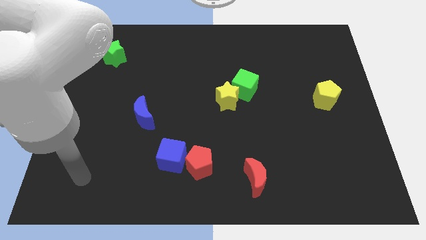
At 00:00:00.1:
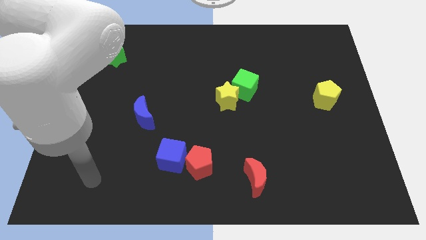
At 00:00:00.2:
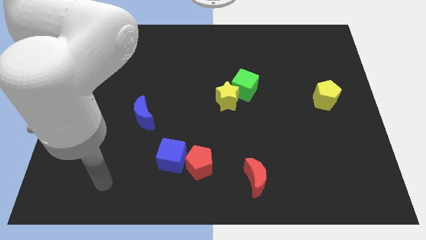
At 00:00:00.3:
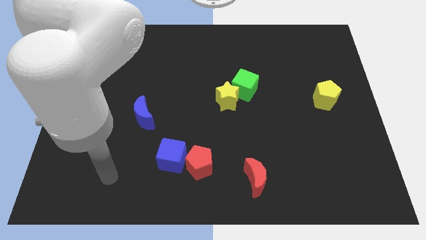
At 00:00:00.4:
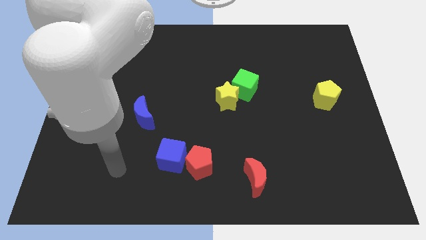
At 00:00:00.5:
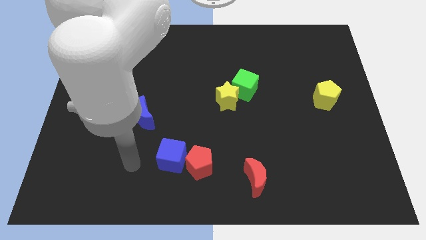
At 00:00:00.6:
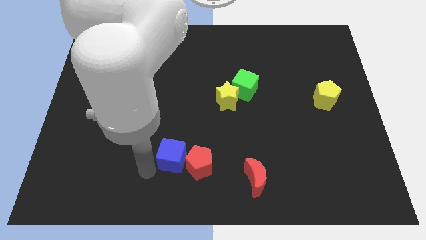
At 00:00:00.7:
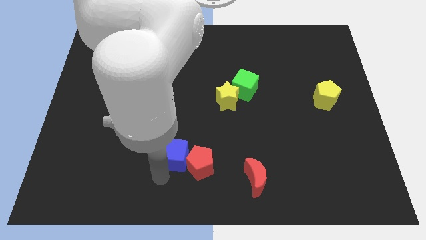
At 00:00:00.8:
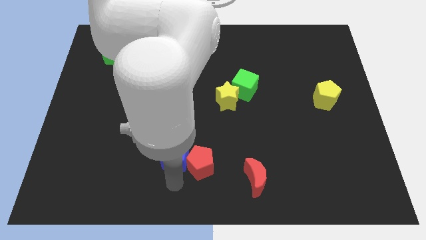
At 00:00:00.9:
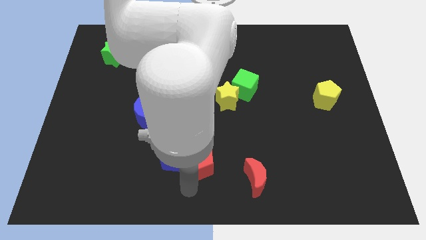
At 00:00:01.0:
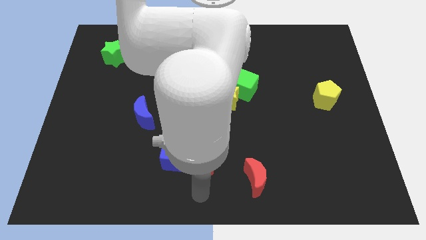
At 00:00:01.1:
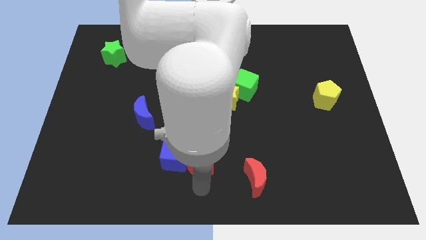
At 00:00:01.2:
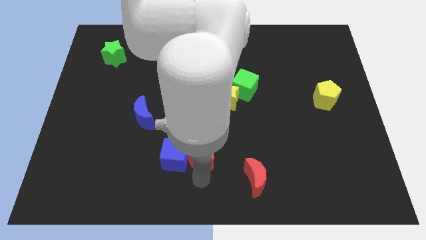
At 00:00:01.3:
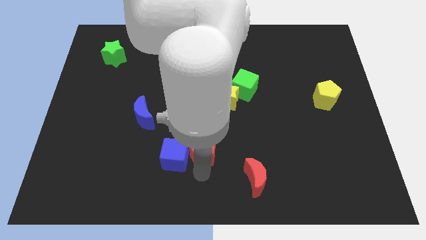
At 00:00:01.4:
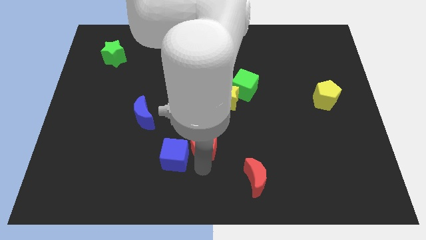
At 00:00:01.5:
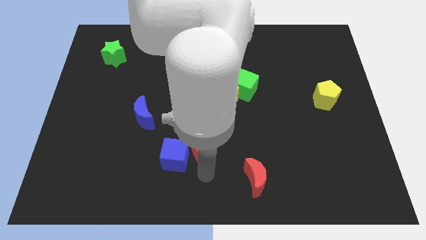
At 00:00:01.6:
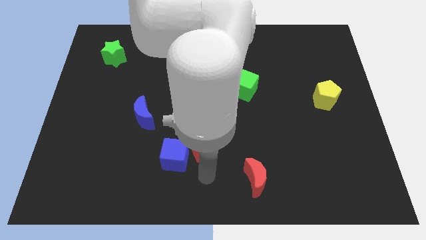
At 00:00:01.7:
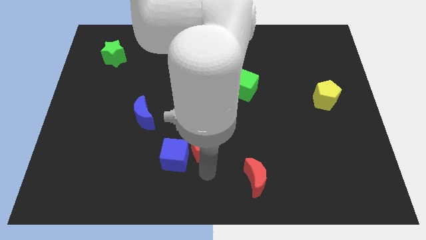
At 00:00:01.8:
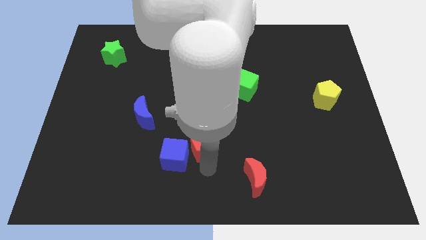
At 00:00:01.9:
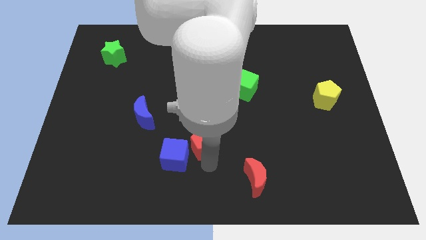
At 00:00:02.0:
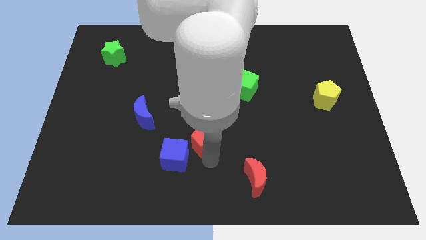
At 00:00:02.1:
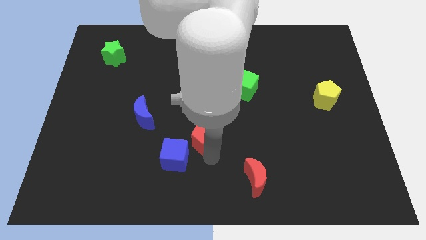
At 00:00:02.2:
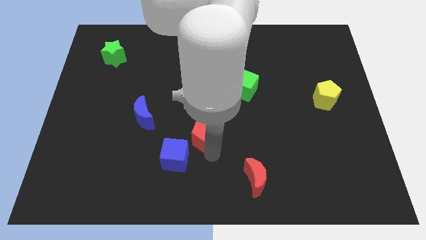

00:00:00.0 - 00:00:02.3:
slide the red pentagon up somewhat

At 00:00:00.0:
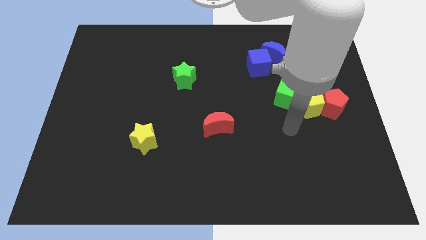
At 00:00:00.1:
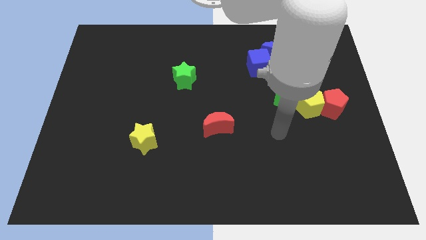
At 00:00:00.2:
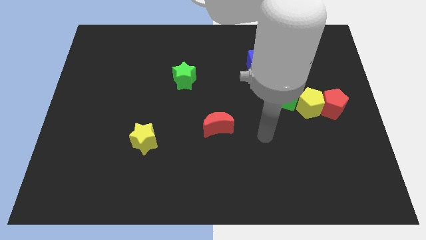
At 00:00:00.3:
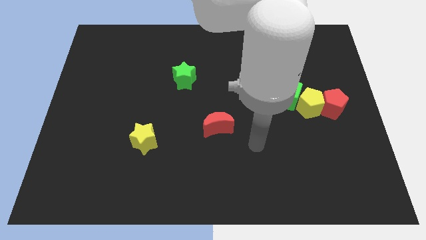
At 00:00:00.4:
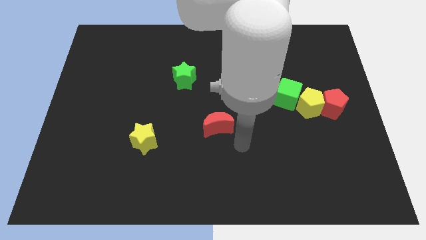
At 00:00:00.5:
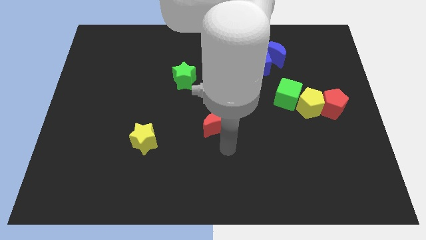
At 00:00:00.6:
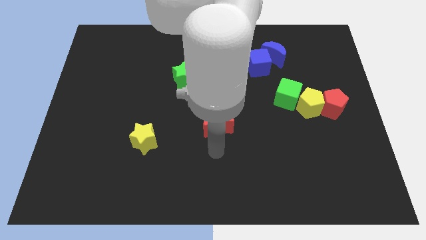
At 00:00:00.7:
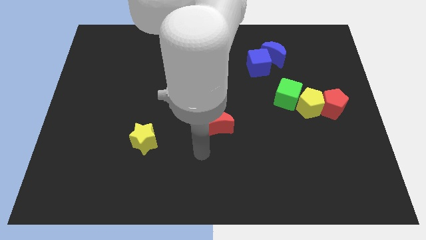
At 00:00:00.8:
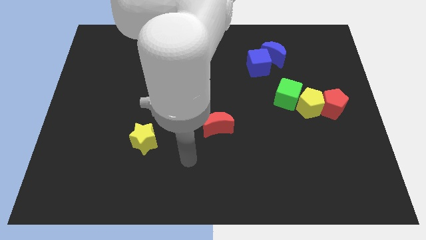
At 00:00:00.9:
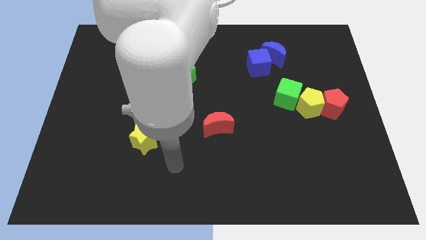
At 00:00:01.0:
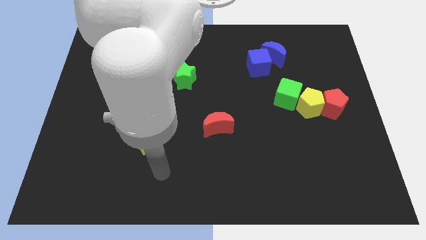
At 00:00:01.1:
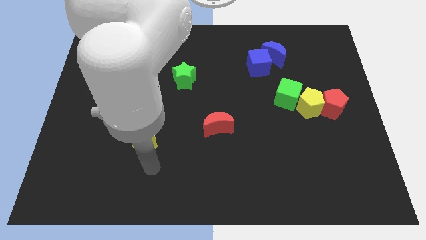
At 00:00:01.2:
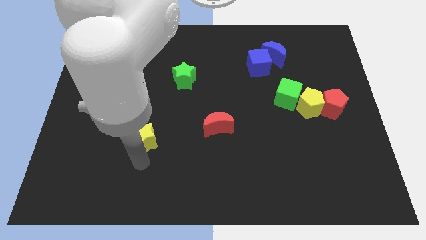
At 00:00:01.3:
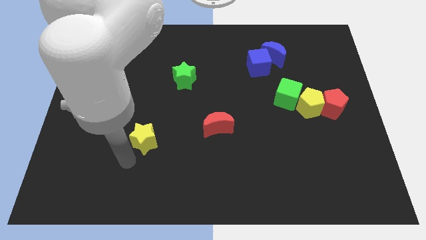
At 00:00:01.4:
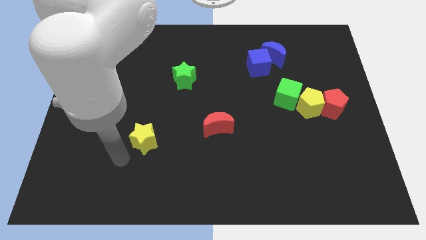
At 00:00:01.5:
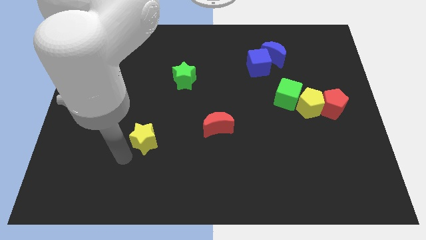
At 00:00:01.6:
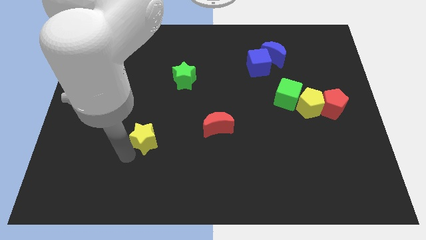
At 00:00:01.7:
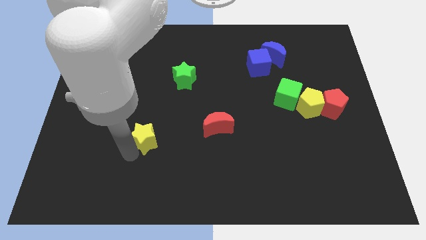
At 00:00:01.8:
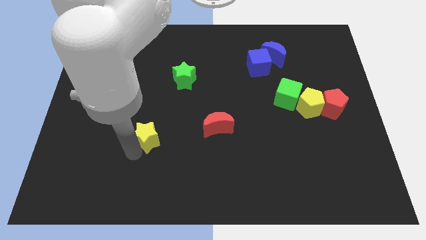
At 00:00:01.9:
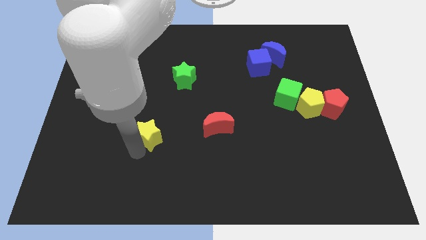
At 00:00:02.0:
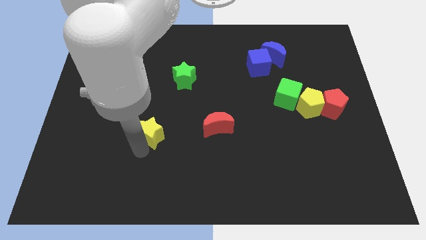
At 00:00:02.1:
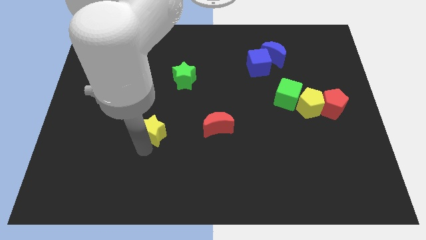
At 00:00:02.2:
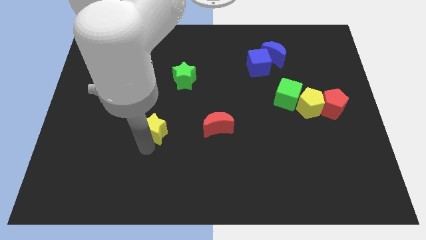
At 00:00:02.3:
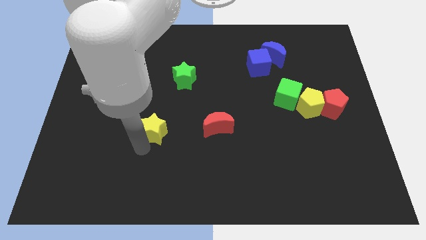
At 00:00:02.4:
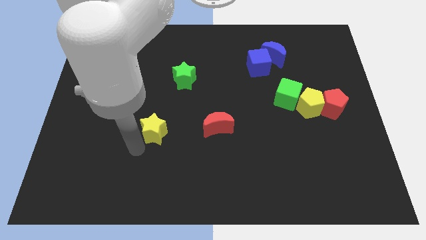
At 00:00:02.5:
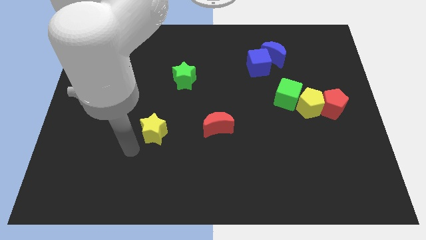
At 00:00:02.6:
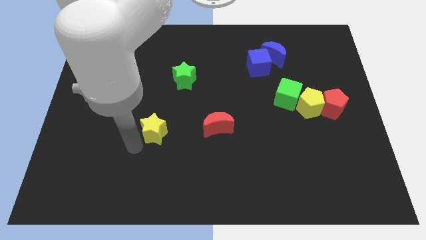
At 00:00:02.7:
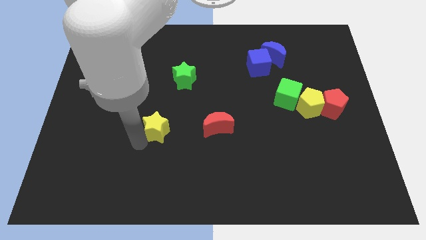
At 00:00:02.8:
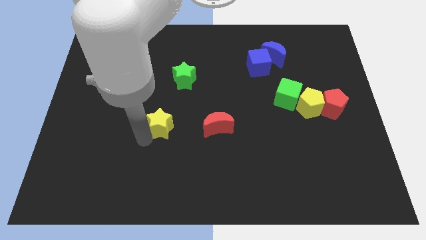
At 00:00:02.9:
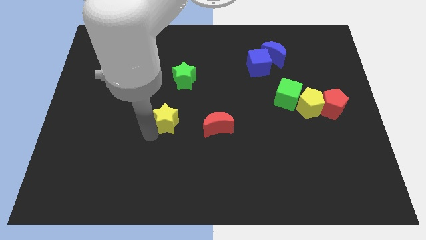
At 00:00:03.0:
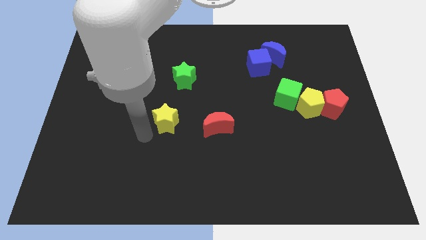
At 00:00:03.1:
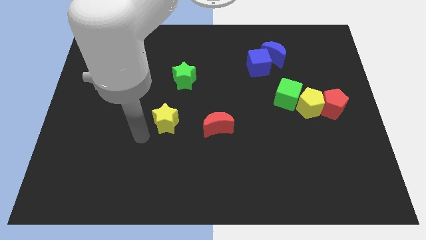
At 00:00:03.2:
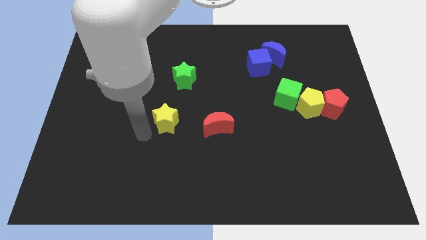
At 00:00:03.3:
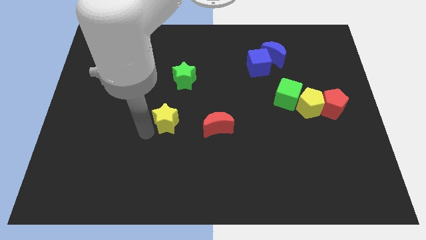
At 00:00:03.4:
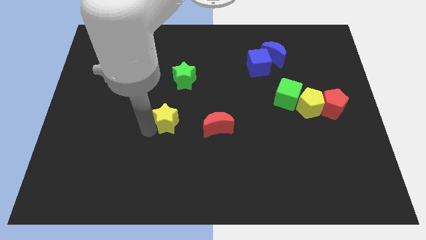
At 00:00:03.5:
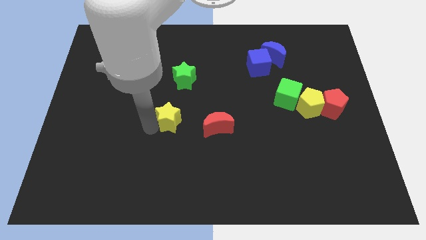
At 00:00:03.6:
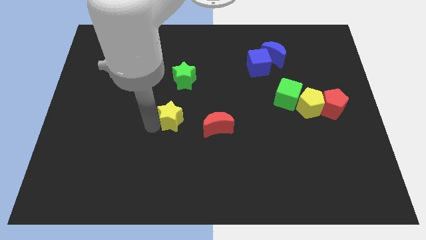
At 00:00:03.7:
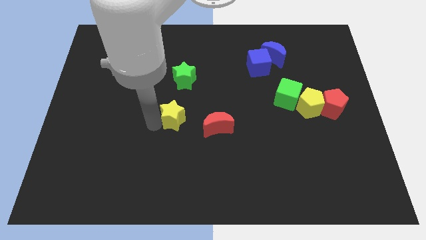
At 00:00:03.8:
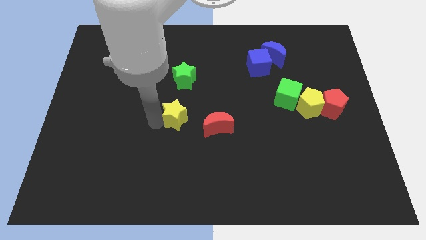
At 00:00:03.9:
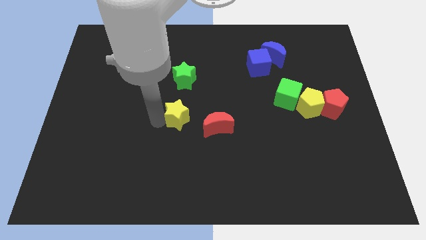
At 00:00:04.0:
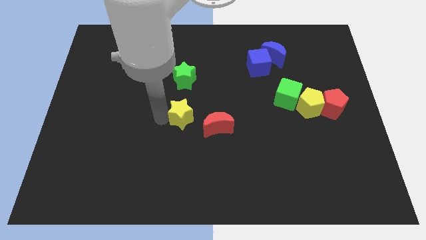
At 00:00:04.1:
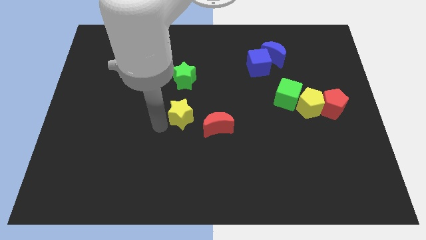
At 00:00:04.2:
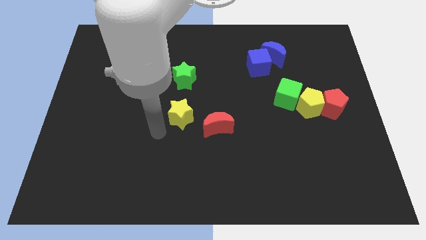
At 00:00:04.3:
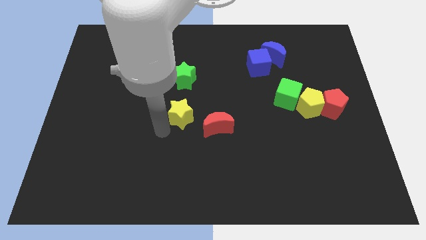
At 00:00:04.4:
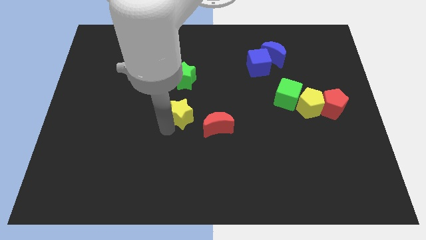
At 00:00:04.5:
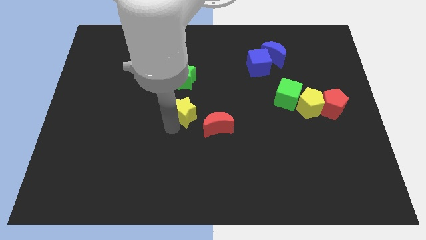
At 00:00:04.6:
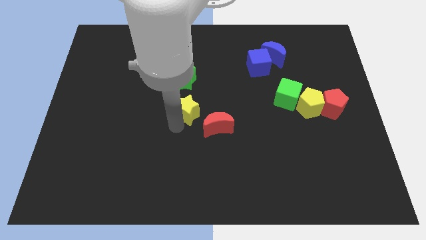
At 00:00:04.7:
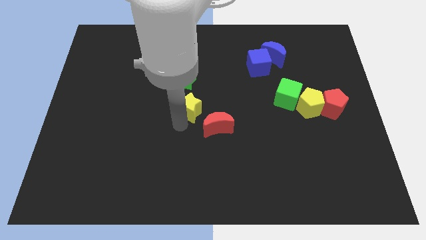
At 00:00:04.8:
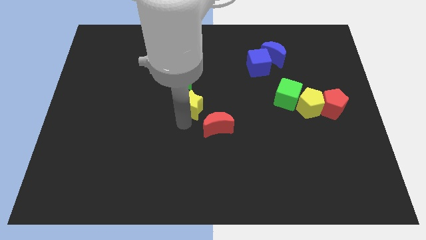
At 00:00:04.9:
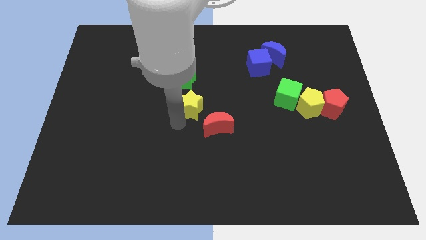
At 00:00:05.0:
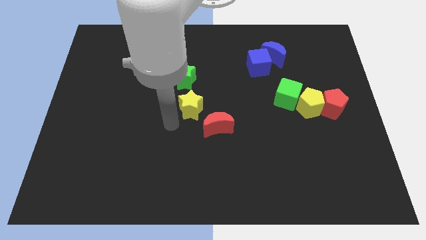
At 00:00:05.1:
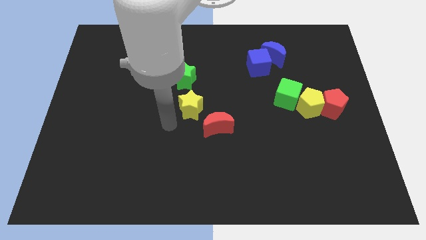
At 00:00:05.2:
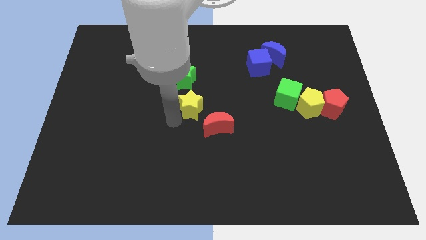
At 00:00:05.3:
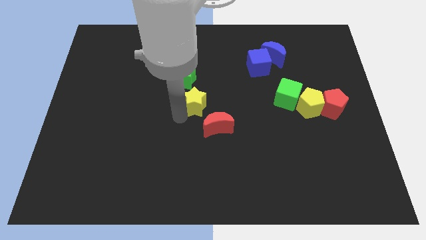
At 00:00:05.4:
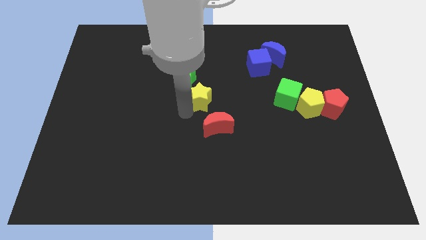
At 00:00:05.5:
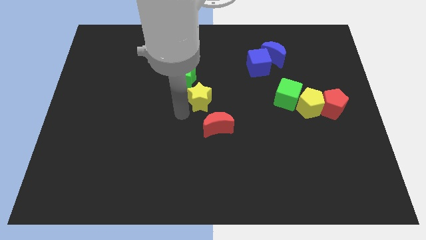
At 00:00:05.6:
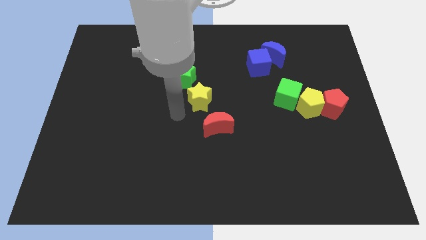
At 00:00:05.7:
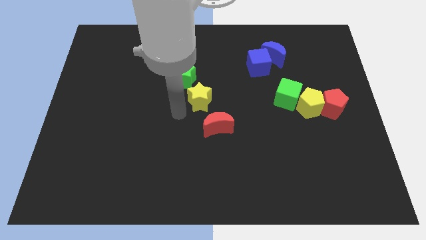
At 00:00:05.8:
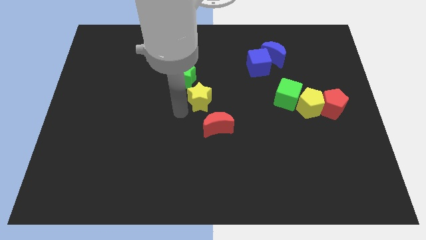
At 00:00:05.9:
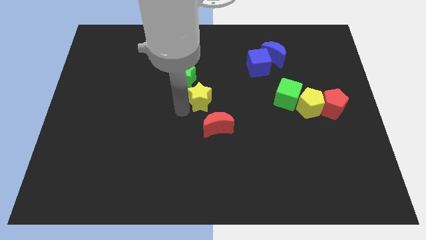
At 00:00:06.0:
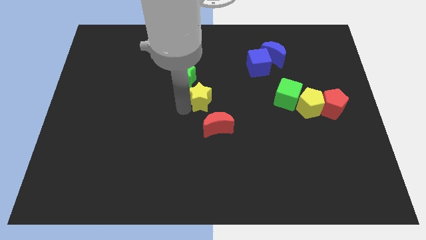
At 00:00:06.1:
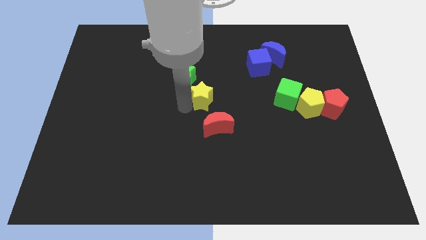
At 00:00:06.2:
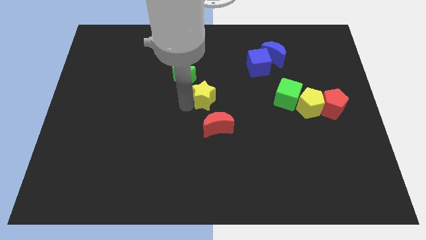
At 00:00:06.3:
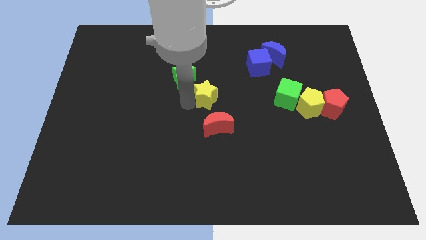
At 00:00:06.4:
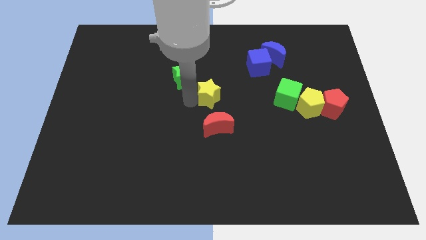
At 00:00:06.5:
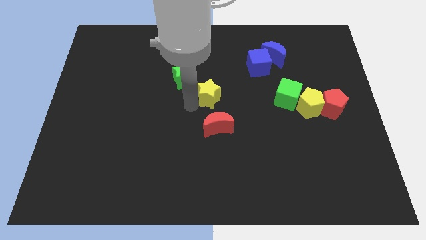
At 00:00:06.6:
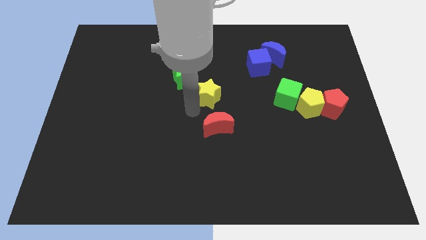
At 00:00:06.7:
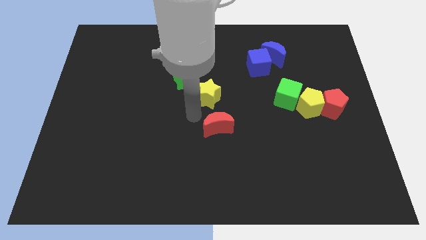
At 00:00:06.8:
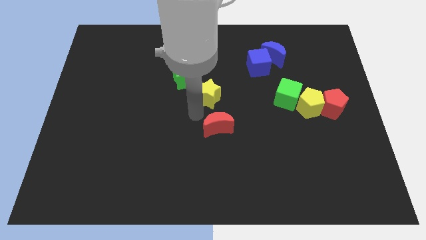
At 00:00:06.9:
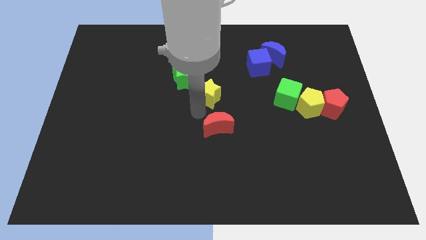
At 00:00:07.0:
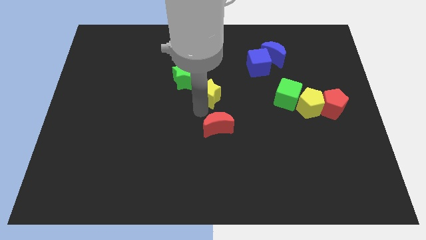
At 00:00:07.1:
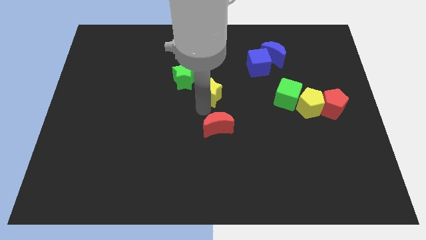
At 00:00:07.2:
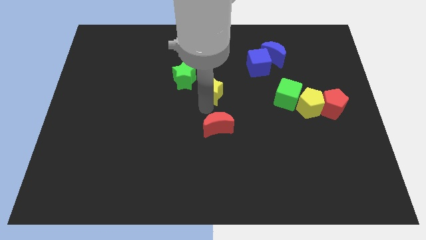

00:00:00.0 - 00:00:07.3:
move the yellow star up and right
